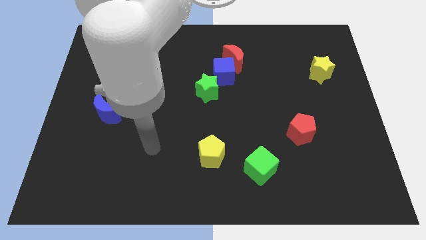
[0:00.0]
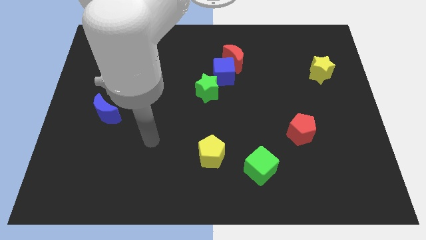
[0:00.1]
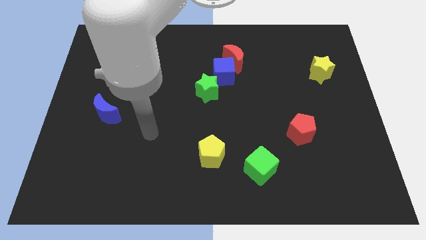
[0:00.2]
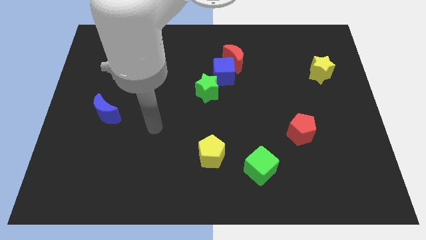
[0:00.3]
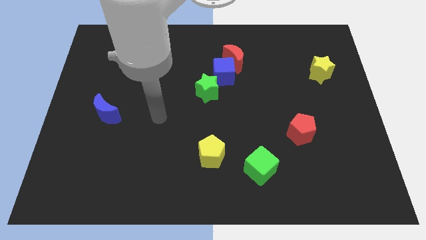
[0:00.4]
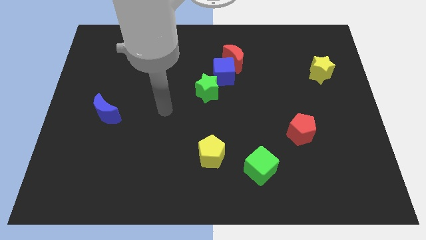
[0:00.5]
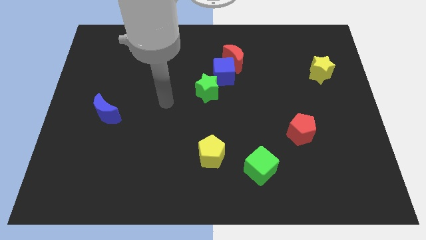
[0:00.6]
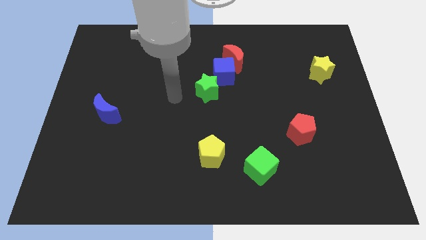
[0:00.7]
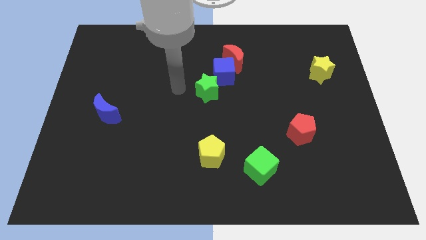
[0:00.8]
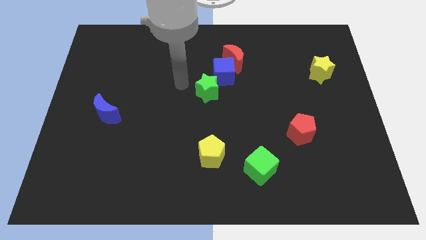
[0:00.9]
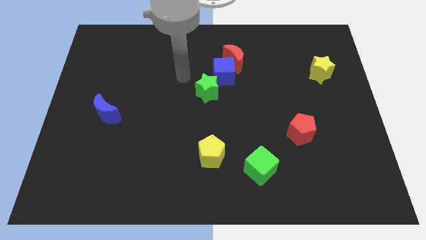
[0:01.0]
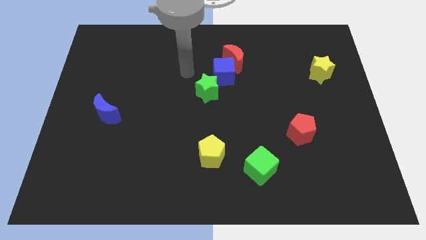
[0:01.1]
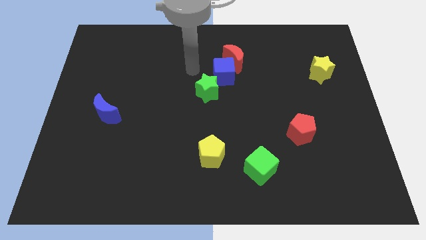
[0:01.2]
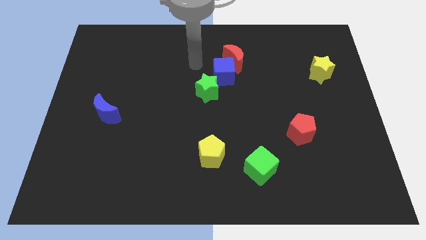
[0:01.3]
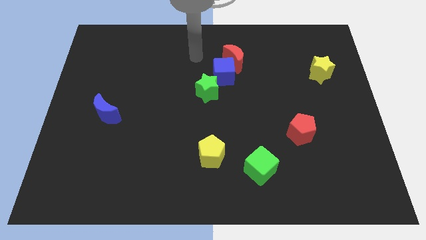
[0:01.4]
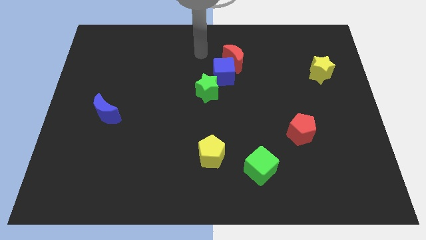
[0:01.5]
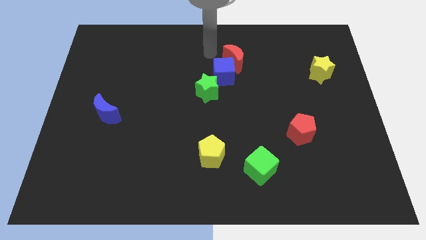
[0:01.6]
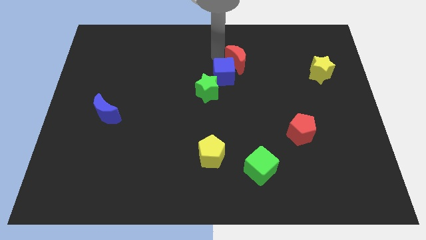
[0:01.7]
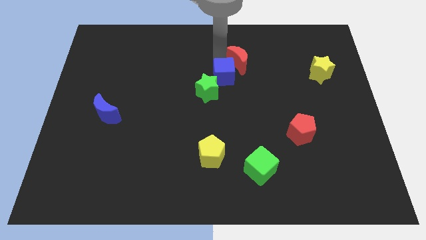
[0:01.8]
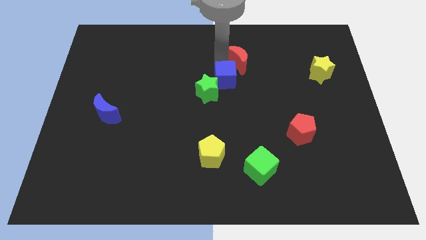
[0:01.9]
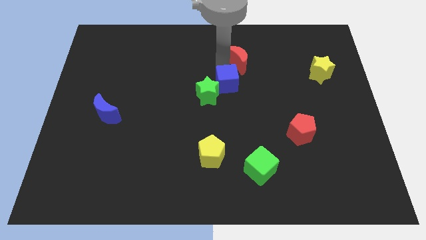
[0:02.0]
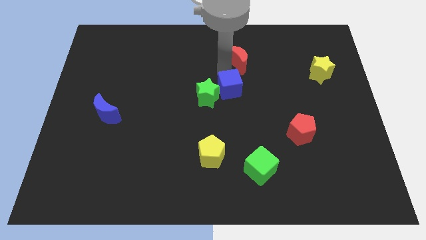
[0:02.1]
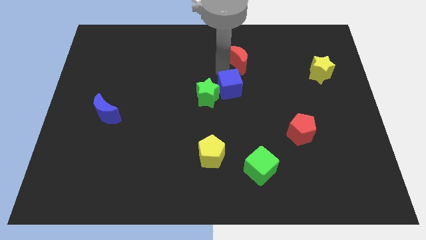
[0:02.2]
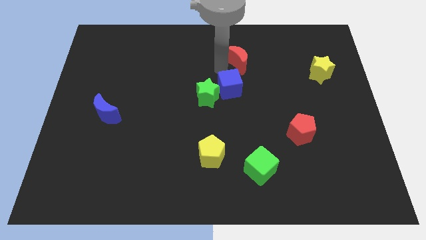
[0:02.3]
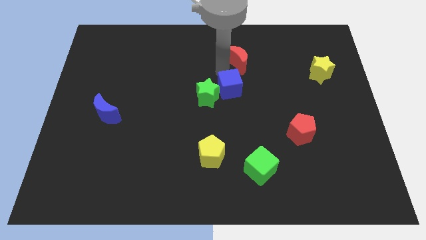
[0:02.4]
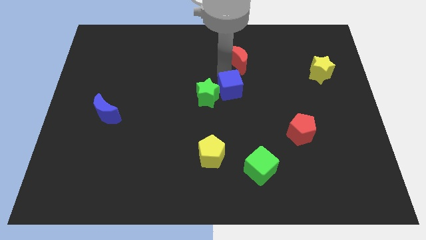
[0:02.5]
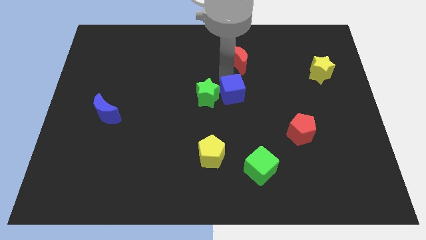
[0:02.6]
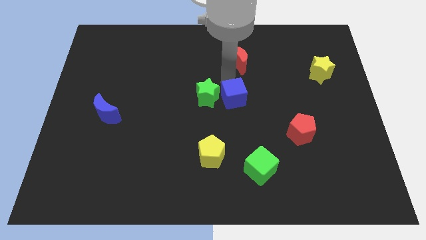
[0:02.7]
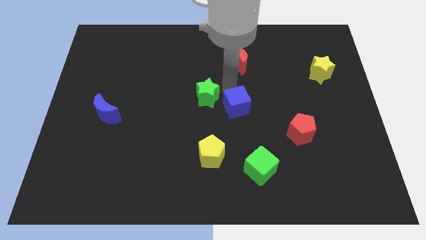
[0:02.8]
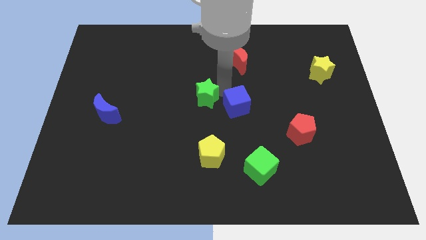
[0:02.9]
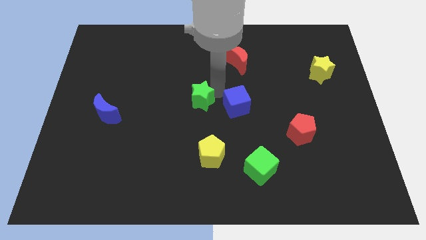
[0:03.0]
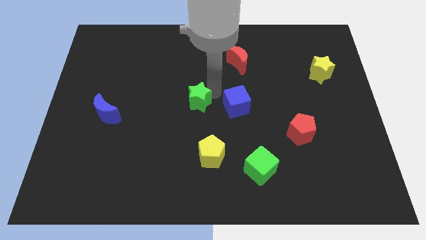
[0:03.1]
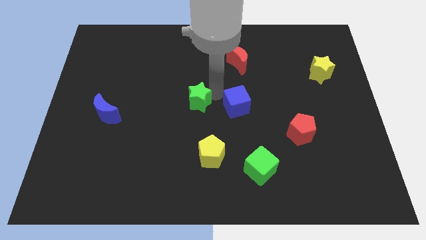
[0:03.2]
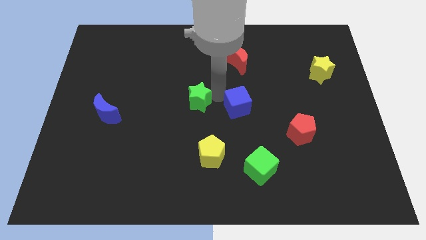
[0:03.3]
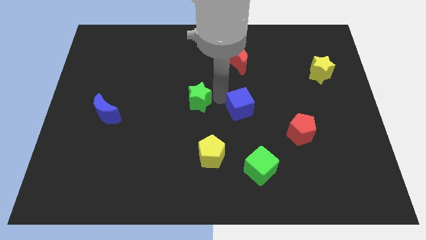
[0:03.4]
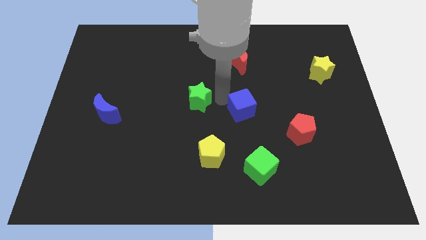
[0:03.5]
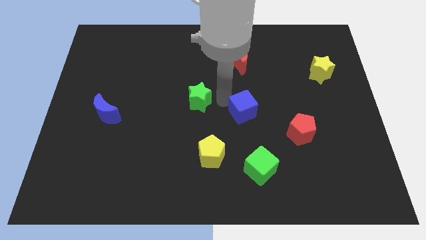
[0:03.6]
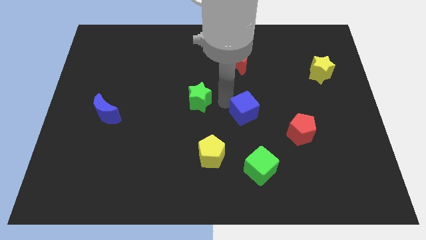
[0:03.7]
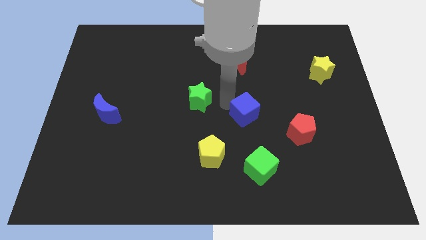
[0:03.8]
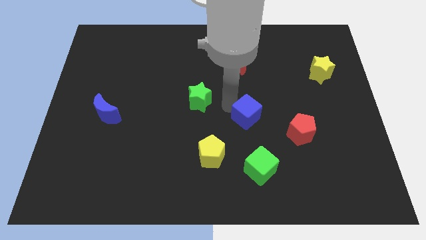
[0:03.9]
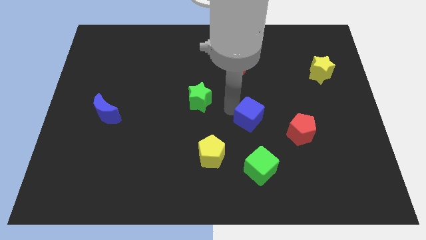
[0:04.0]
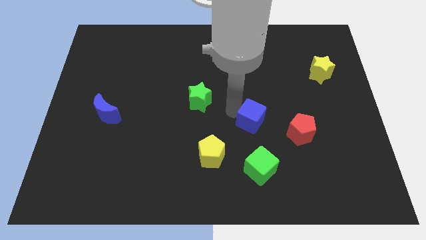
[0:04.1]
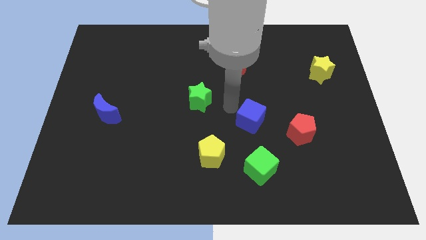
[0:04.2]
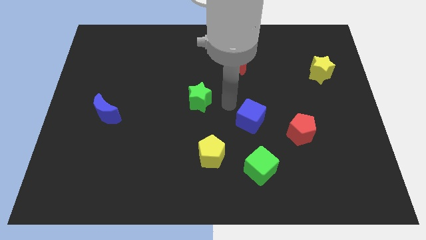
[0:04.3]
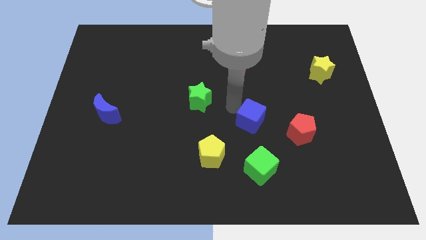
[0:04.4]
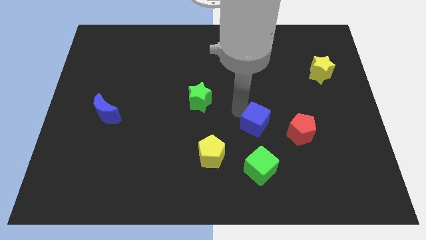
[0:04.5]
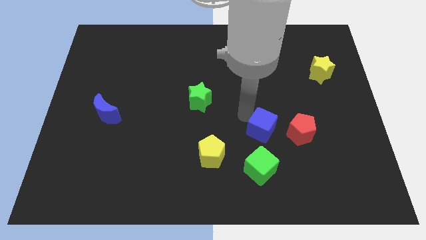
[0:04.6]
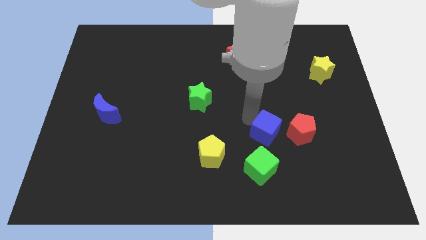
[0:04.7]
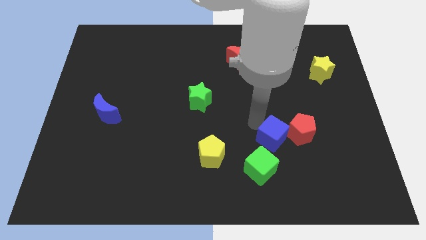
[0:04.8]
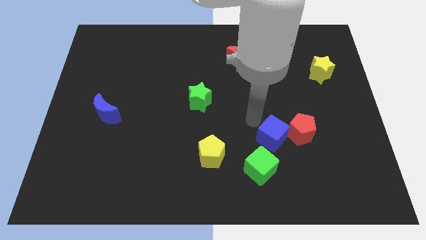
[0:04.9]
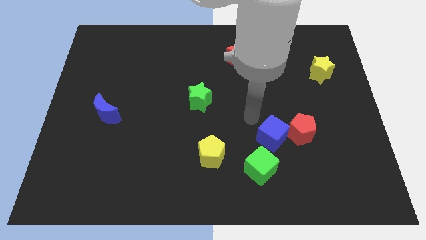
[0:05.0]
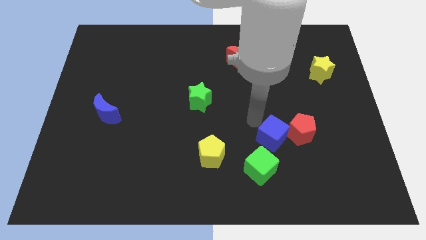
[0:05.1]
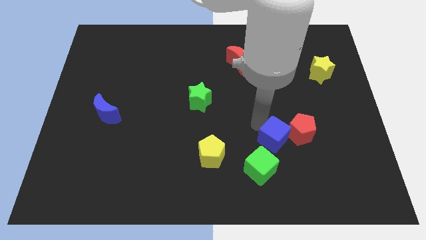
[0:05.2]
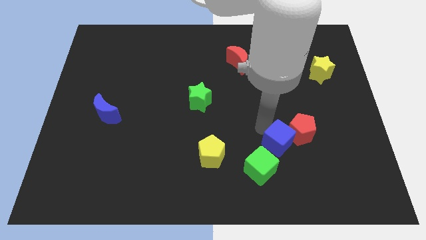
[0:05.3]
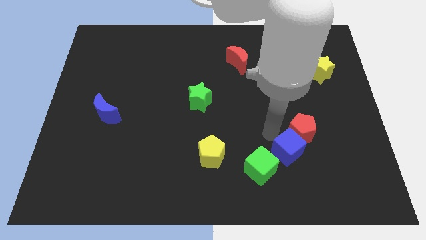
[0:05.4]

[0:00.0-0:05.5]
slide the blue cube to the bottom of the red pentagon

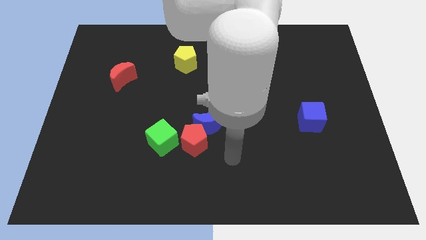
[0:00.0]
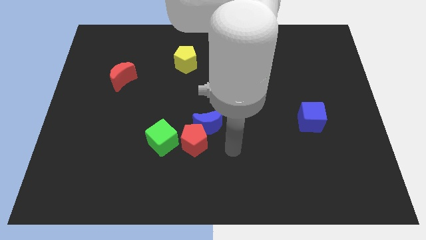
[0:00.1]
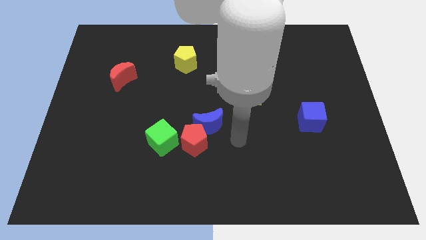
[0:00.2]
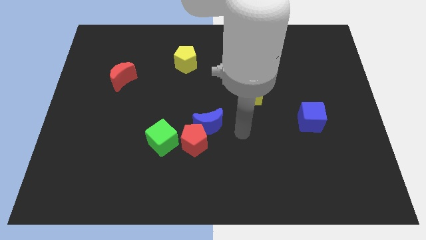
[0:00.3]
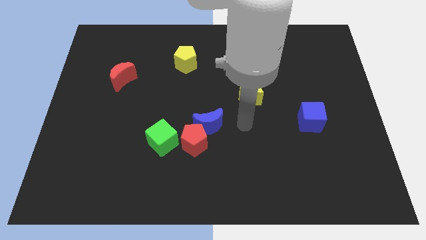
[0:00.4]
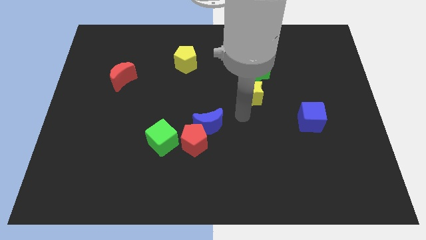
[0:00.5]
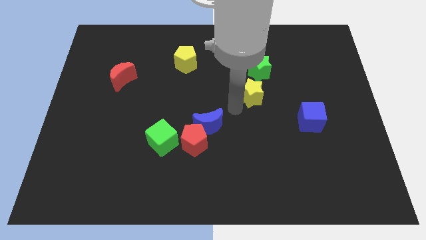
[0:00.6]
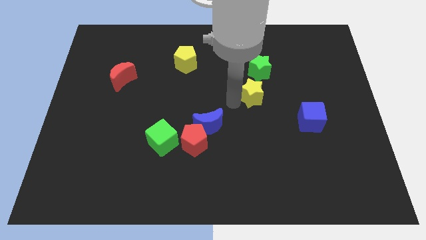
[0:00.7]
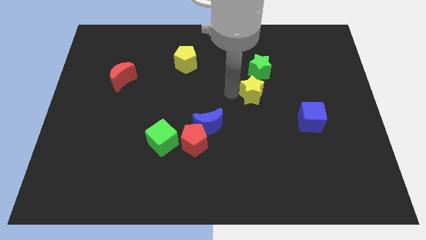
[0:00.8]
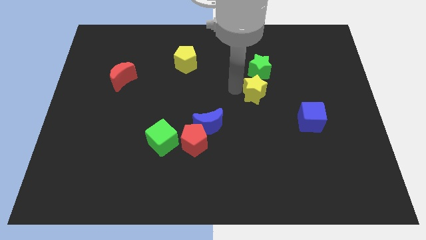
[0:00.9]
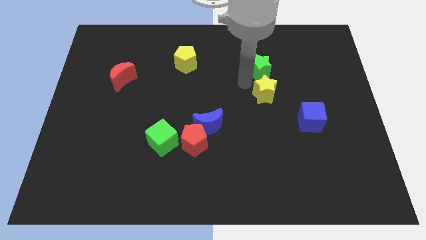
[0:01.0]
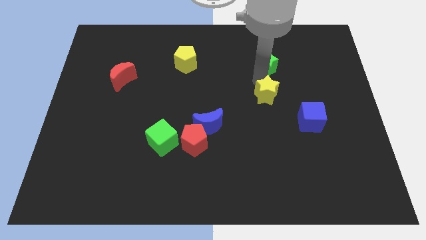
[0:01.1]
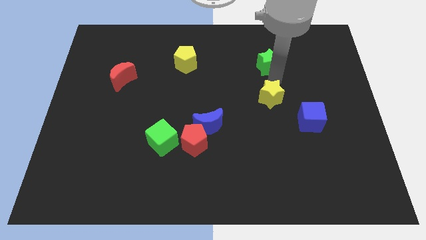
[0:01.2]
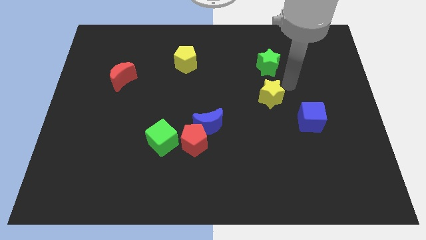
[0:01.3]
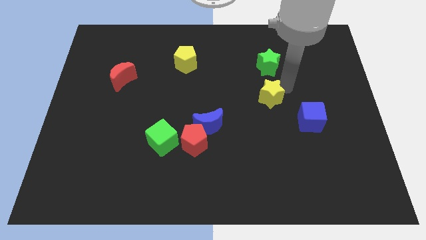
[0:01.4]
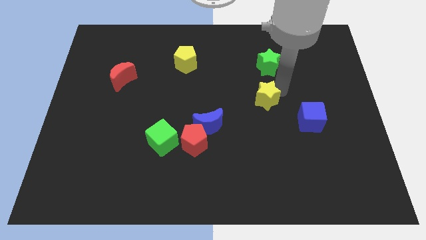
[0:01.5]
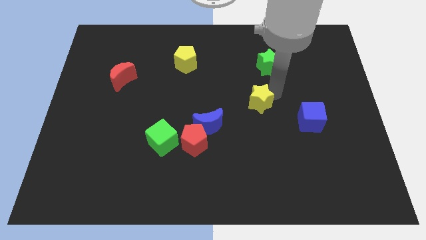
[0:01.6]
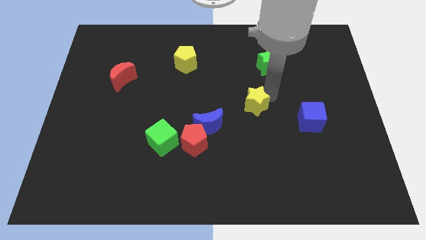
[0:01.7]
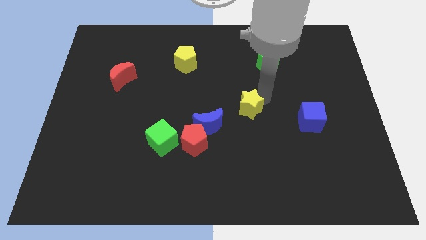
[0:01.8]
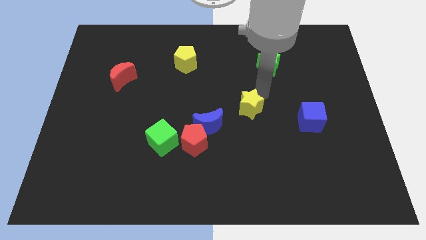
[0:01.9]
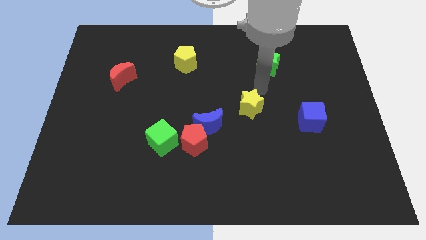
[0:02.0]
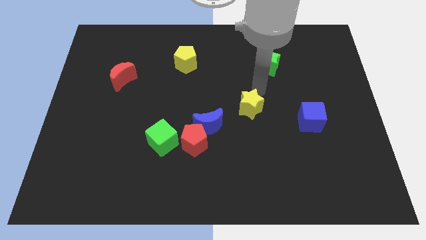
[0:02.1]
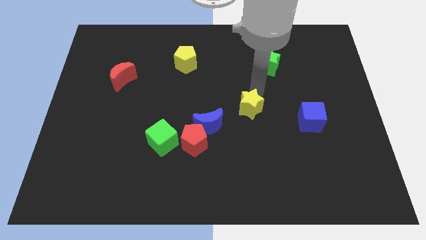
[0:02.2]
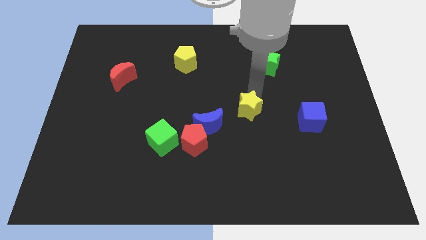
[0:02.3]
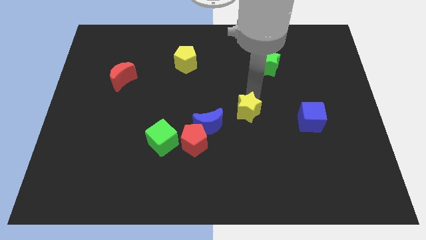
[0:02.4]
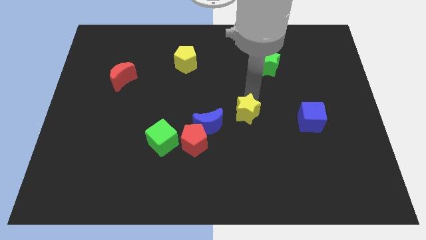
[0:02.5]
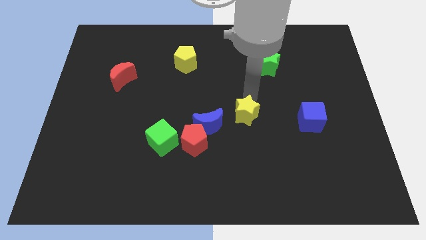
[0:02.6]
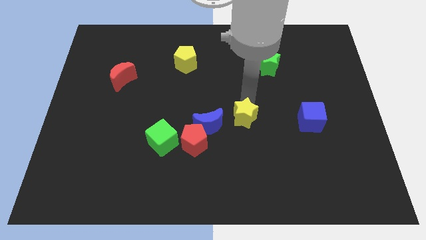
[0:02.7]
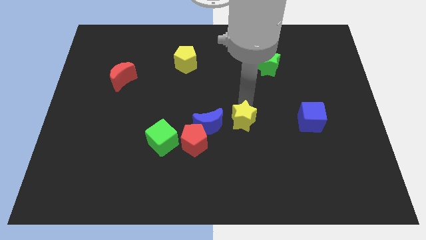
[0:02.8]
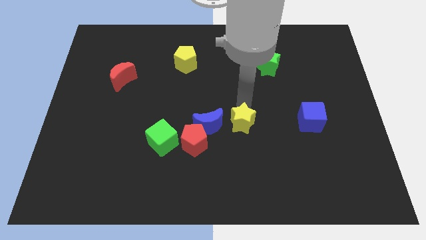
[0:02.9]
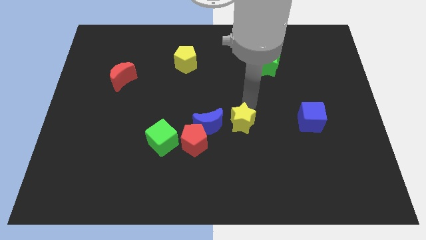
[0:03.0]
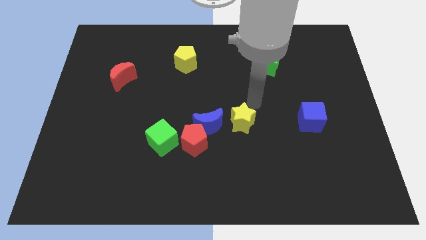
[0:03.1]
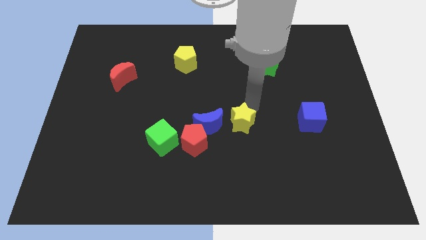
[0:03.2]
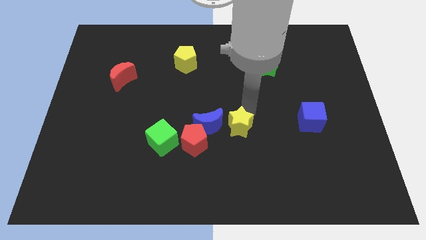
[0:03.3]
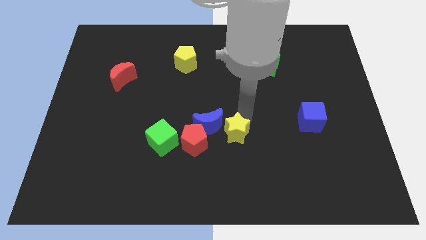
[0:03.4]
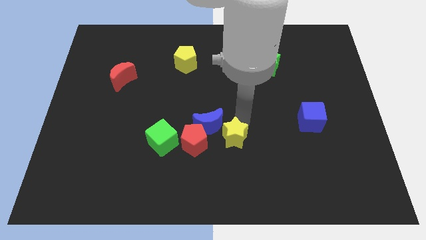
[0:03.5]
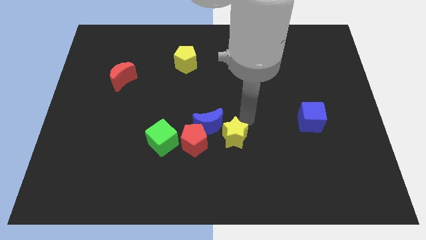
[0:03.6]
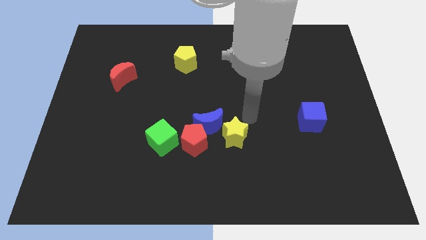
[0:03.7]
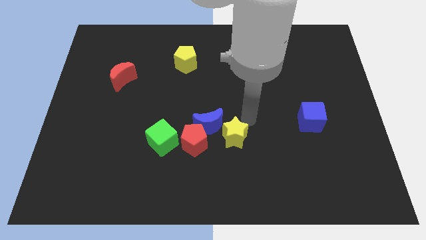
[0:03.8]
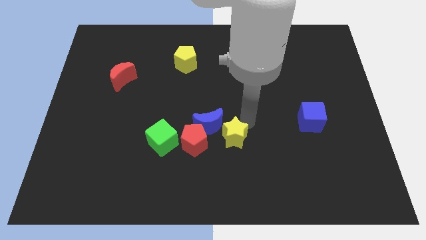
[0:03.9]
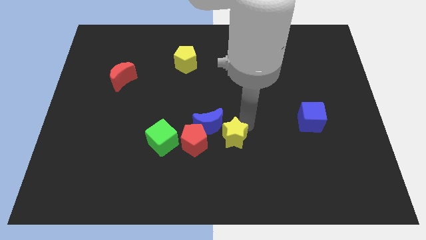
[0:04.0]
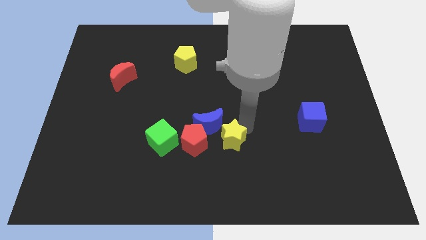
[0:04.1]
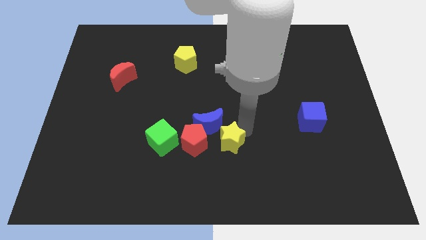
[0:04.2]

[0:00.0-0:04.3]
push the yellow star to the bottom of the blue moon
